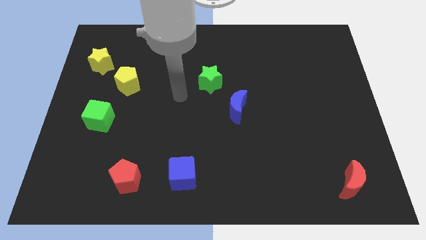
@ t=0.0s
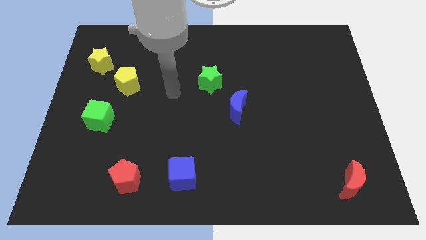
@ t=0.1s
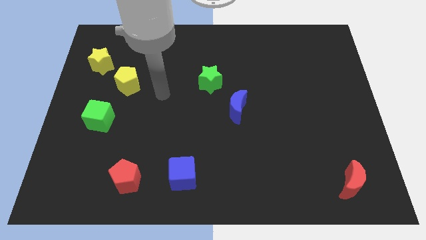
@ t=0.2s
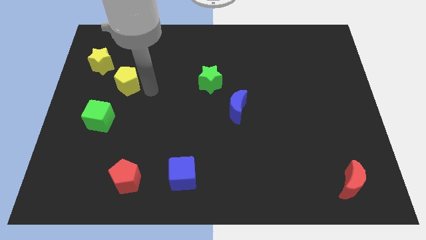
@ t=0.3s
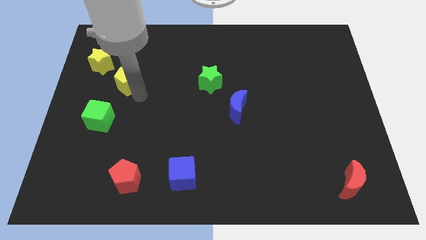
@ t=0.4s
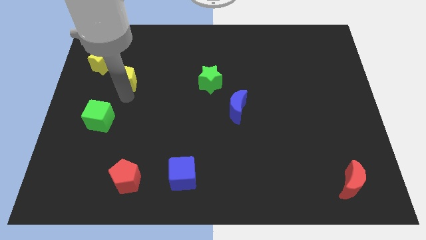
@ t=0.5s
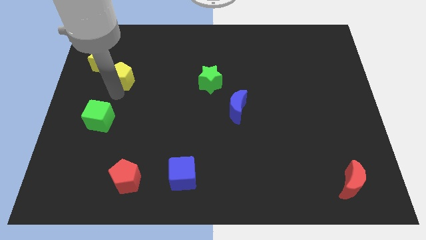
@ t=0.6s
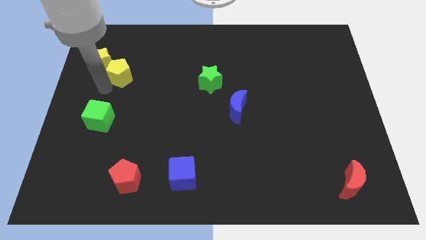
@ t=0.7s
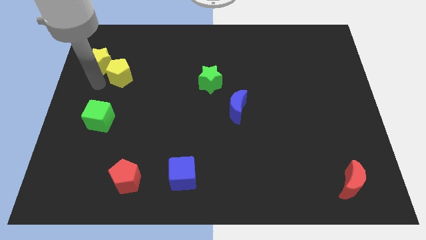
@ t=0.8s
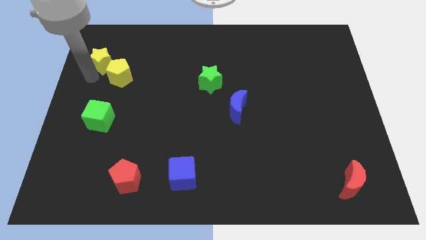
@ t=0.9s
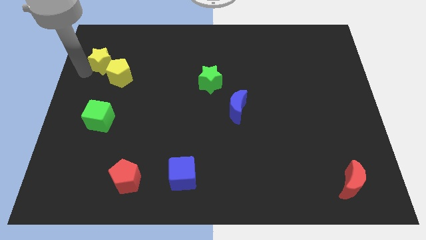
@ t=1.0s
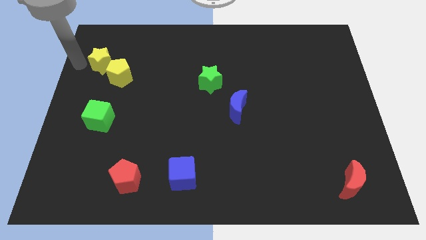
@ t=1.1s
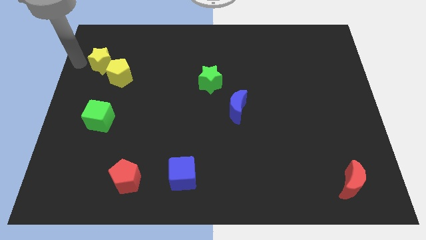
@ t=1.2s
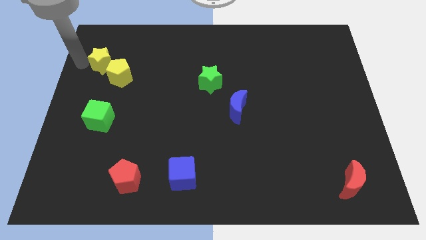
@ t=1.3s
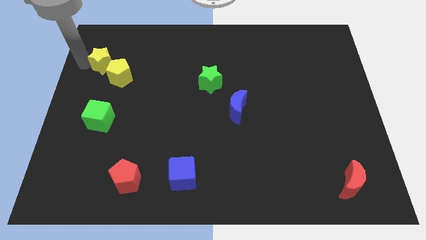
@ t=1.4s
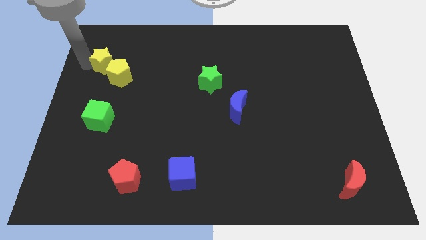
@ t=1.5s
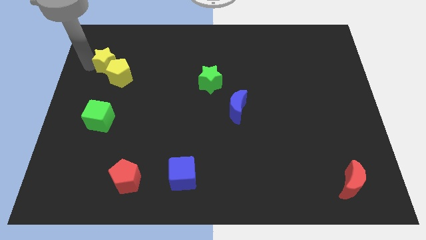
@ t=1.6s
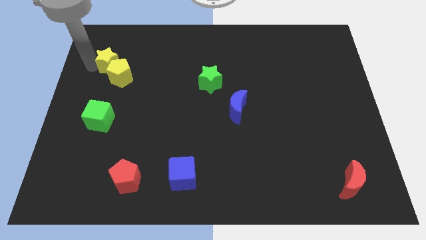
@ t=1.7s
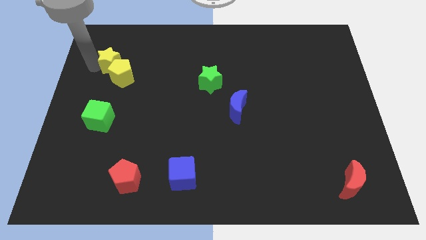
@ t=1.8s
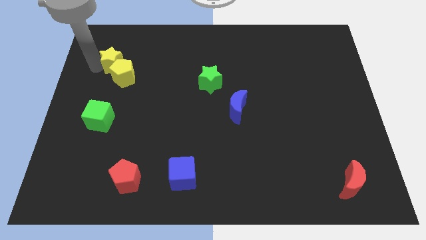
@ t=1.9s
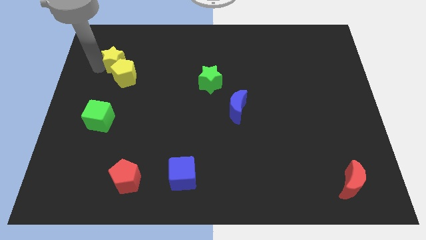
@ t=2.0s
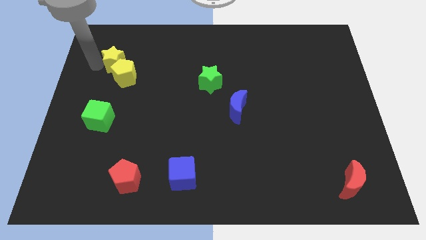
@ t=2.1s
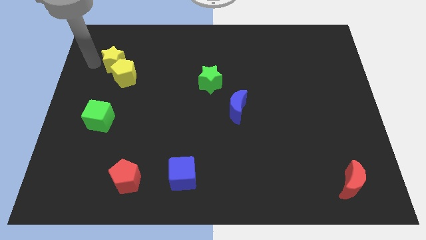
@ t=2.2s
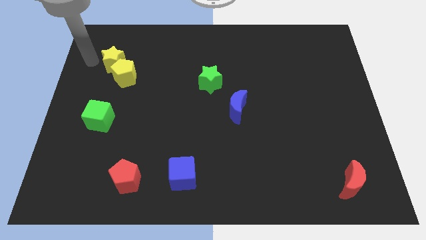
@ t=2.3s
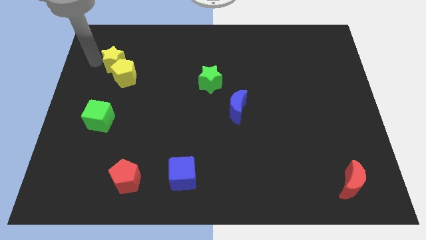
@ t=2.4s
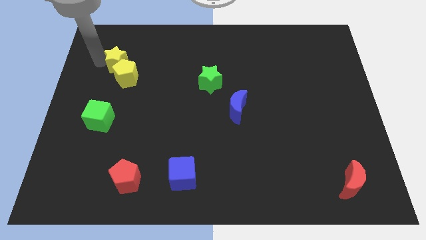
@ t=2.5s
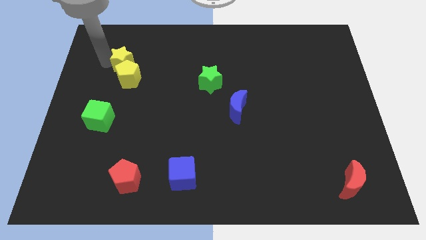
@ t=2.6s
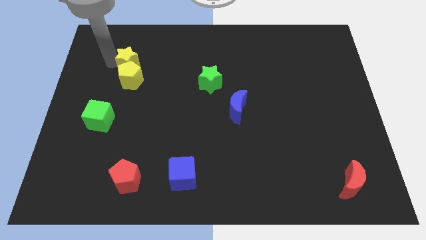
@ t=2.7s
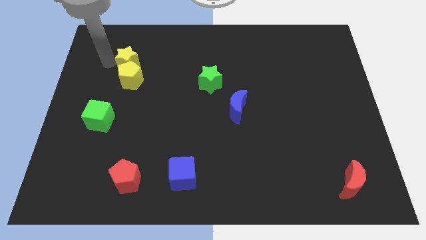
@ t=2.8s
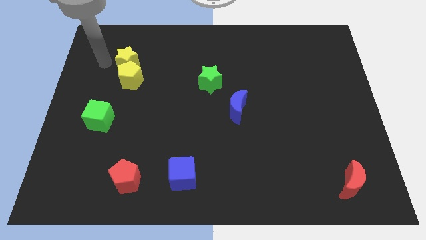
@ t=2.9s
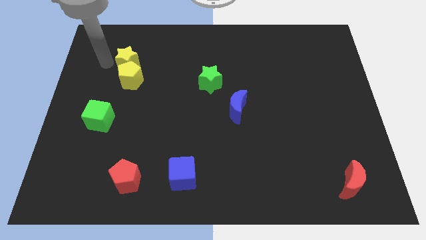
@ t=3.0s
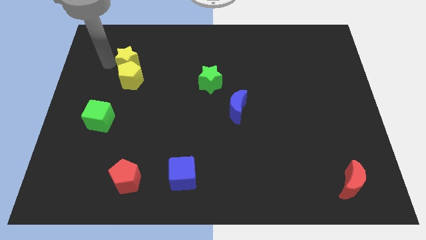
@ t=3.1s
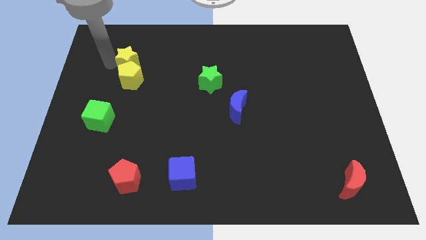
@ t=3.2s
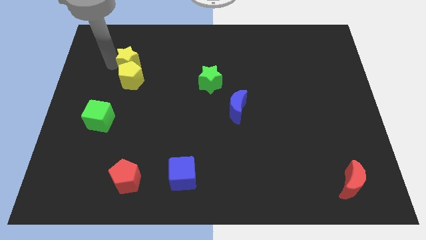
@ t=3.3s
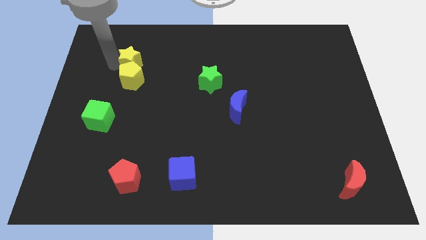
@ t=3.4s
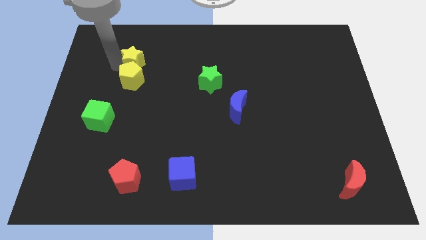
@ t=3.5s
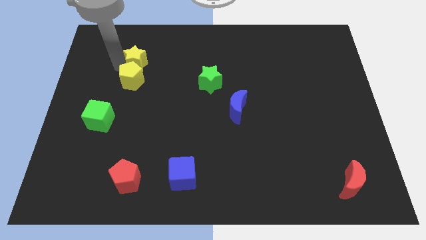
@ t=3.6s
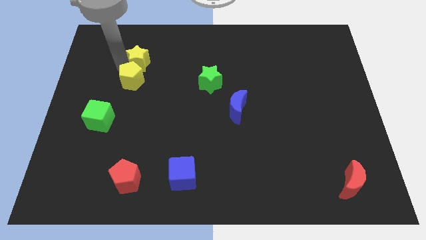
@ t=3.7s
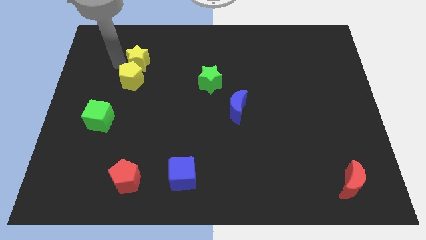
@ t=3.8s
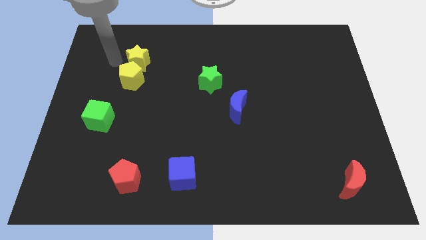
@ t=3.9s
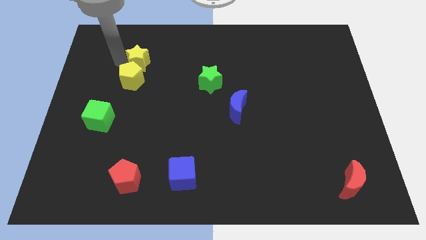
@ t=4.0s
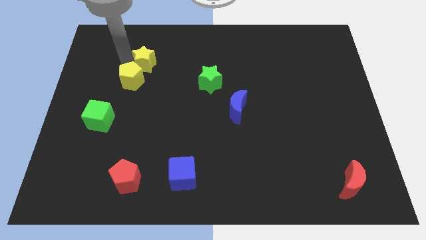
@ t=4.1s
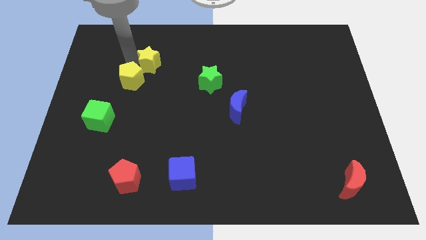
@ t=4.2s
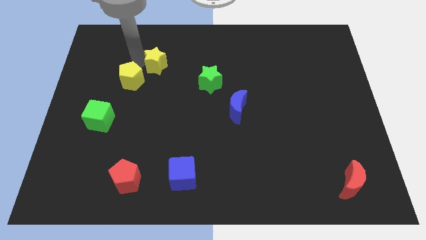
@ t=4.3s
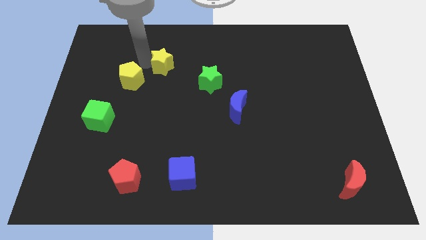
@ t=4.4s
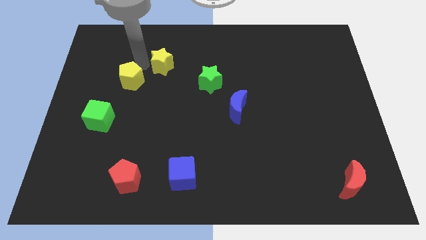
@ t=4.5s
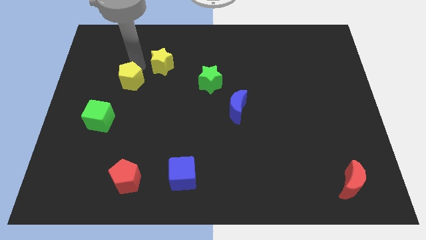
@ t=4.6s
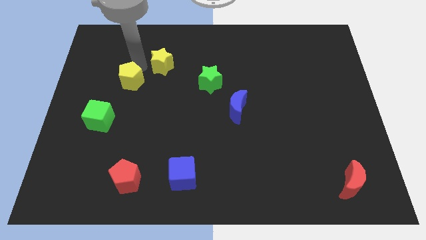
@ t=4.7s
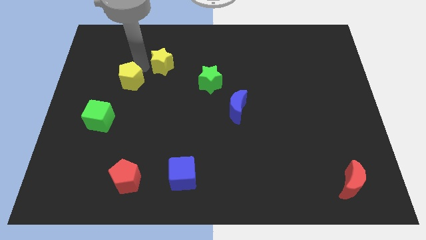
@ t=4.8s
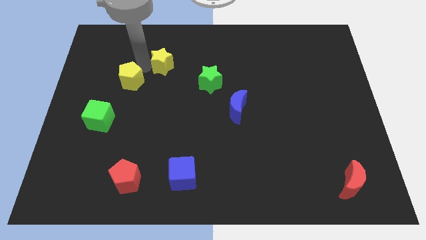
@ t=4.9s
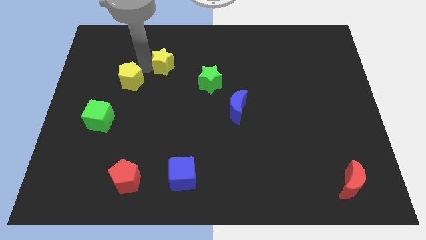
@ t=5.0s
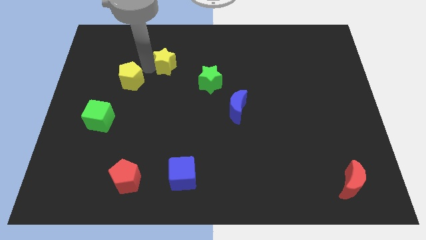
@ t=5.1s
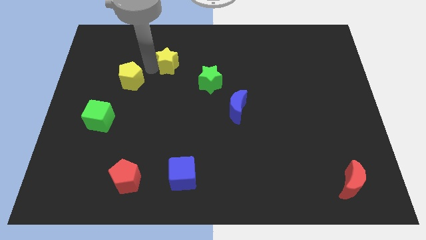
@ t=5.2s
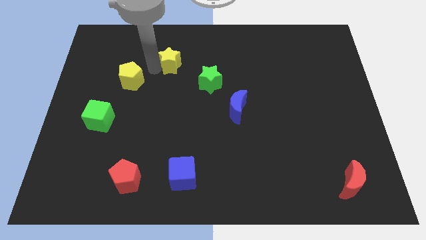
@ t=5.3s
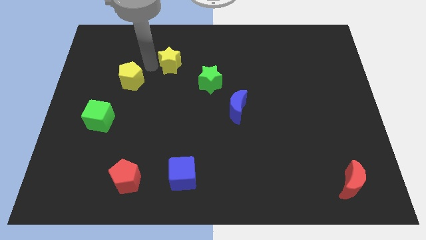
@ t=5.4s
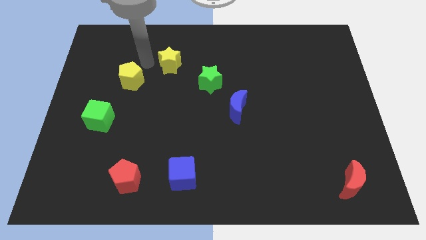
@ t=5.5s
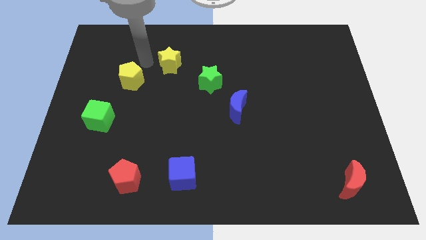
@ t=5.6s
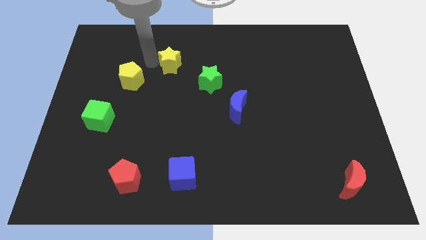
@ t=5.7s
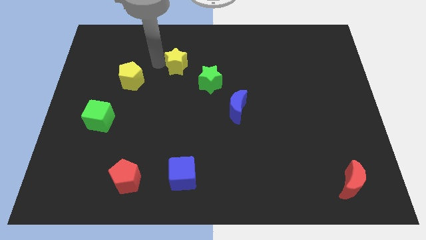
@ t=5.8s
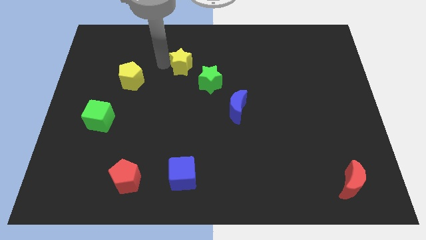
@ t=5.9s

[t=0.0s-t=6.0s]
move the yellow star to the right

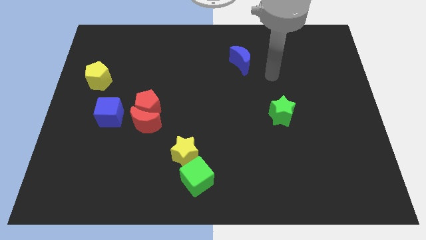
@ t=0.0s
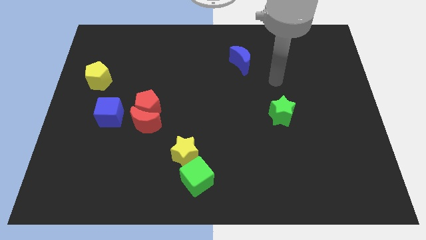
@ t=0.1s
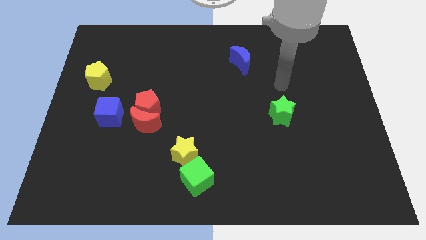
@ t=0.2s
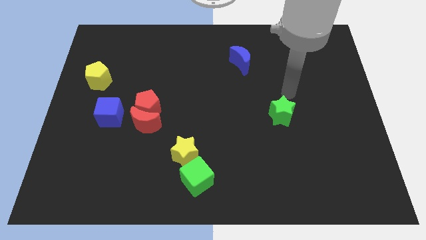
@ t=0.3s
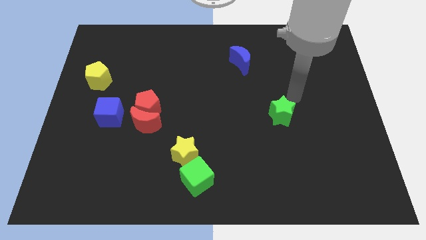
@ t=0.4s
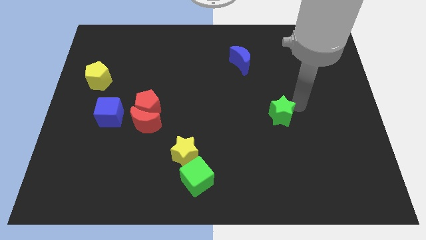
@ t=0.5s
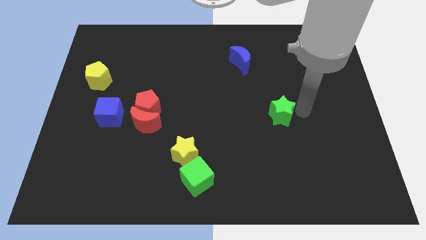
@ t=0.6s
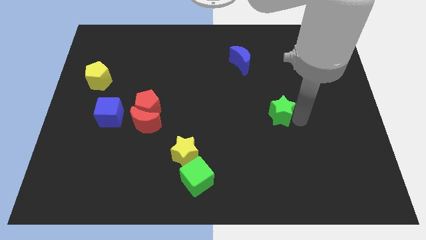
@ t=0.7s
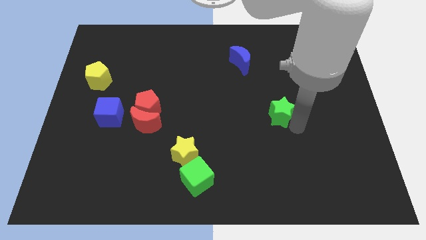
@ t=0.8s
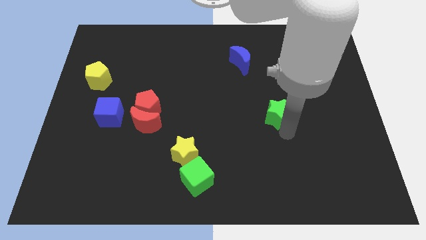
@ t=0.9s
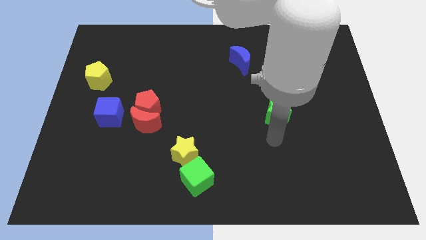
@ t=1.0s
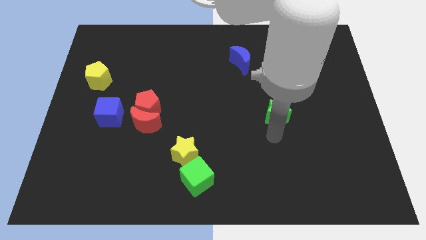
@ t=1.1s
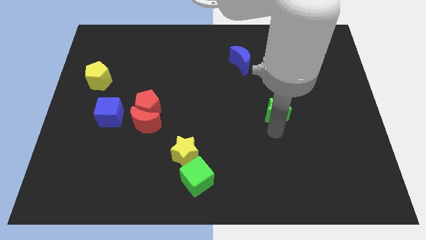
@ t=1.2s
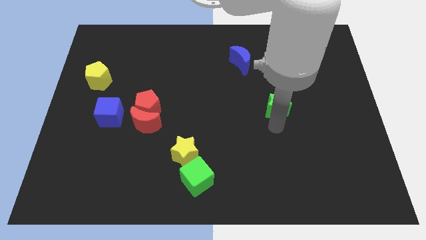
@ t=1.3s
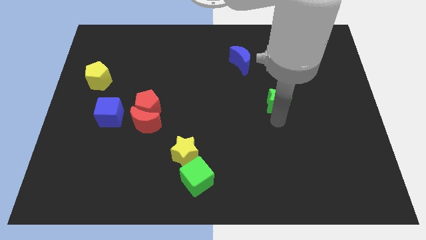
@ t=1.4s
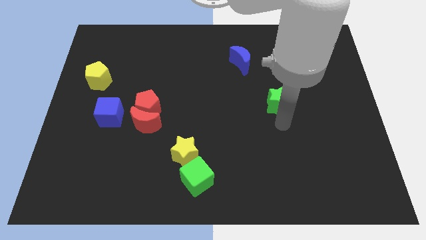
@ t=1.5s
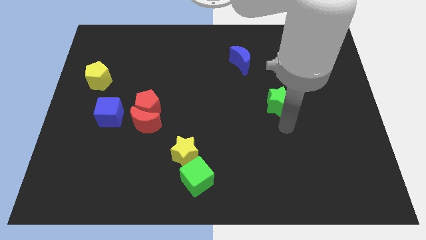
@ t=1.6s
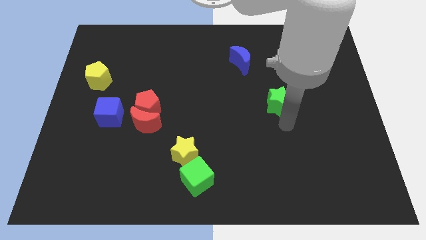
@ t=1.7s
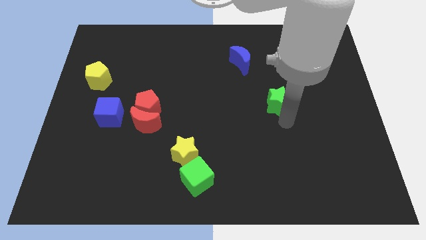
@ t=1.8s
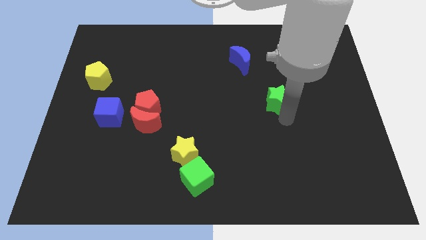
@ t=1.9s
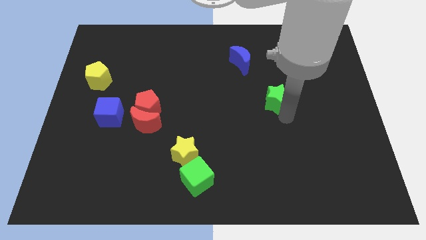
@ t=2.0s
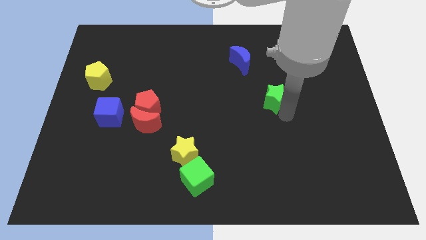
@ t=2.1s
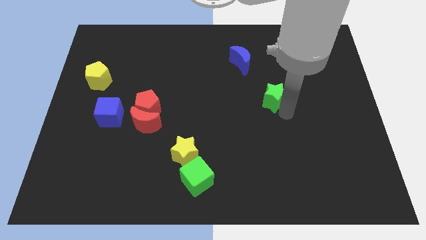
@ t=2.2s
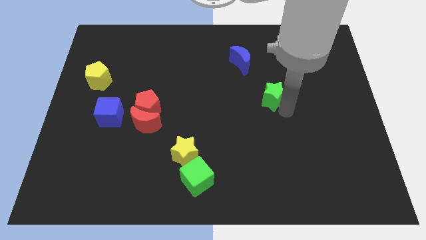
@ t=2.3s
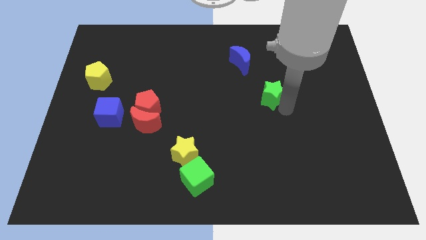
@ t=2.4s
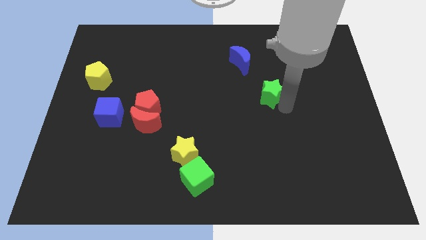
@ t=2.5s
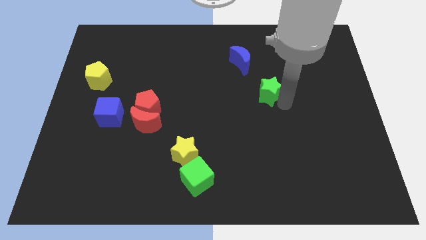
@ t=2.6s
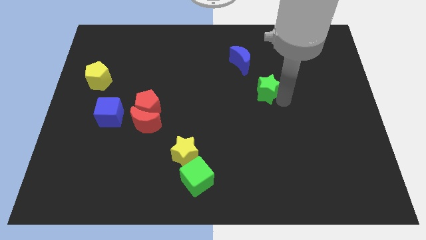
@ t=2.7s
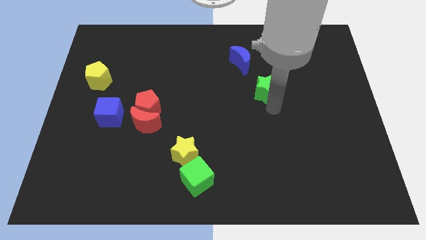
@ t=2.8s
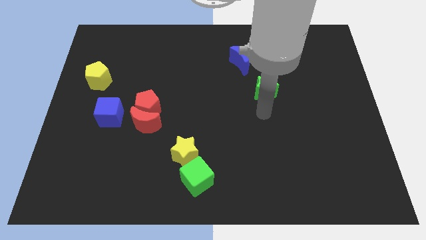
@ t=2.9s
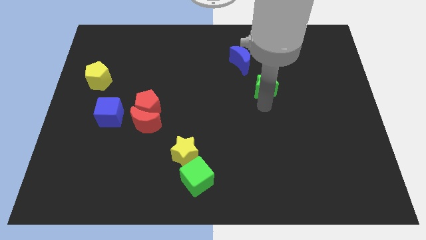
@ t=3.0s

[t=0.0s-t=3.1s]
slide the green star upwards somewhat
